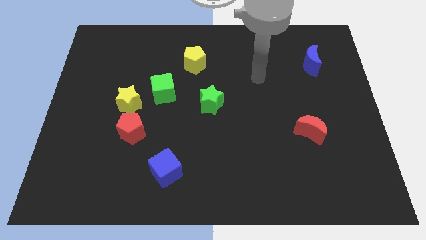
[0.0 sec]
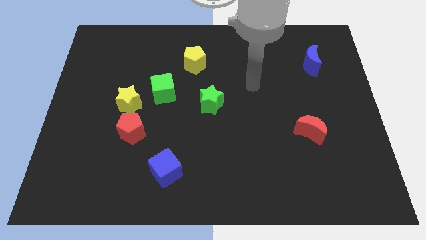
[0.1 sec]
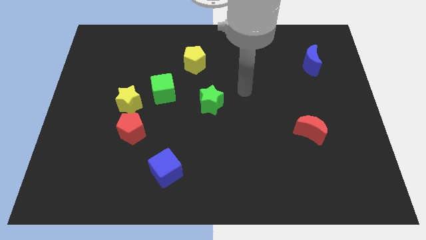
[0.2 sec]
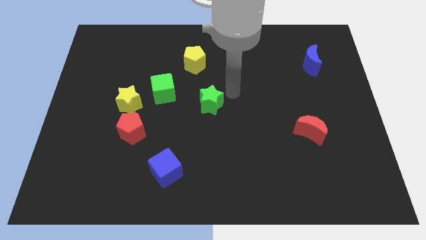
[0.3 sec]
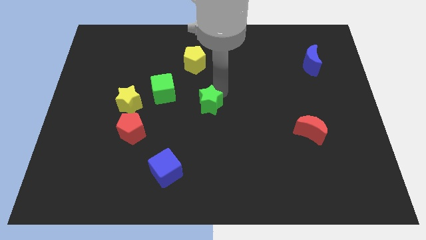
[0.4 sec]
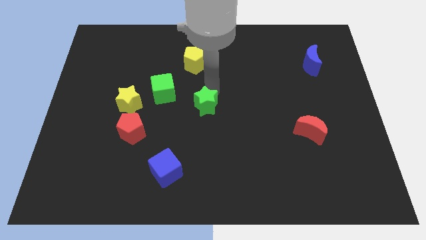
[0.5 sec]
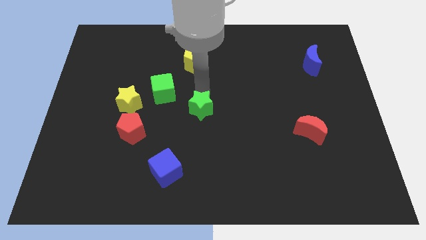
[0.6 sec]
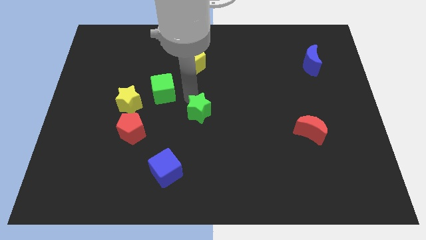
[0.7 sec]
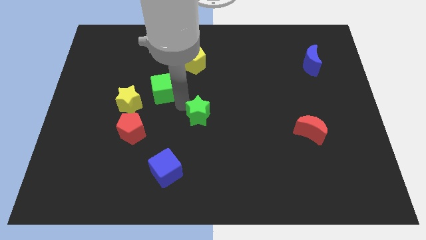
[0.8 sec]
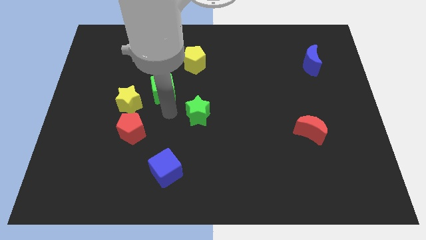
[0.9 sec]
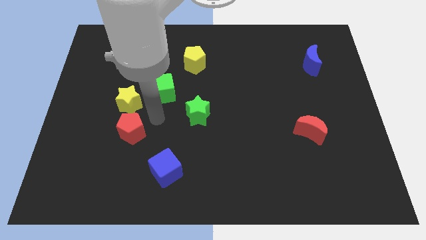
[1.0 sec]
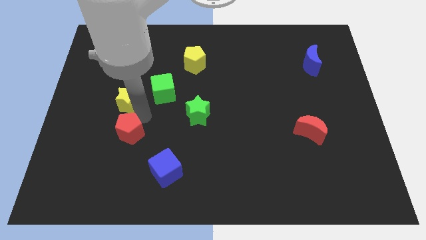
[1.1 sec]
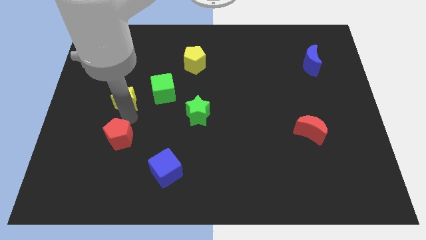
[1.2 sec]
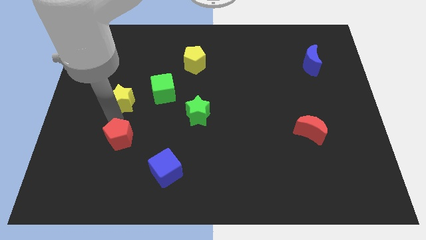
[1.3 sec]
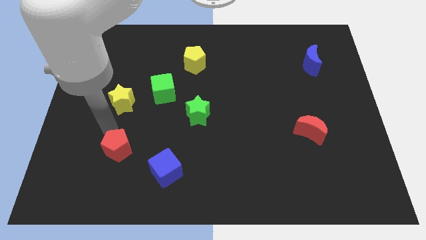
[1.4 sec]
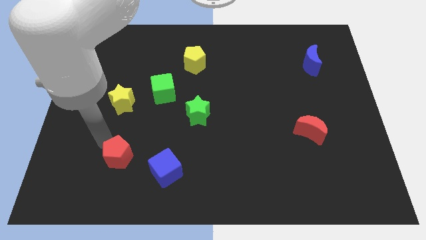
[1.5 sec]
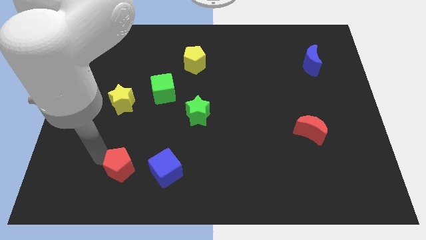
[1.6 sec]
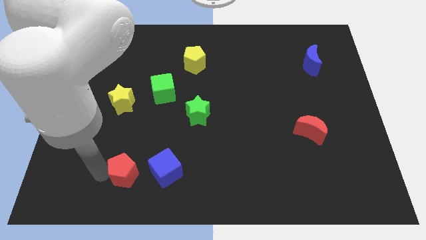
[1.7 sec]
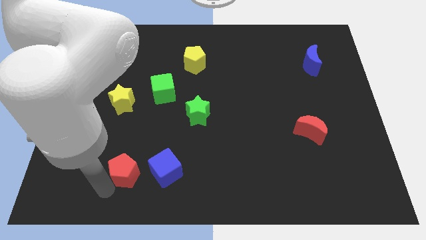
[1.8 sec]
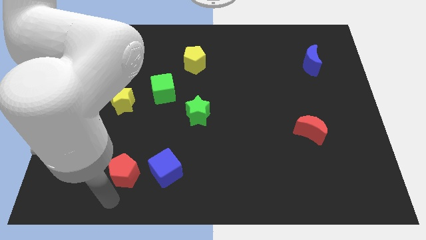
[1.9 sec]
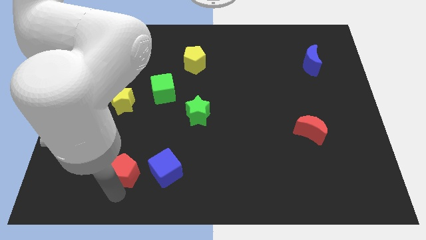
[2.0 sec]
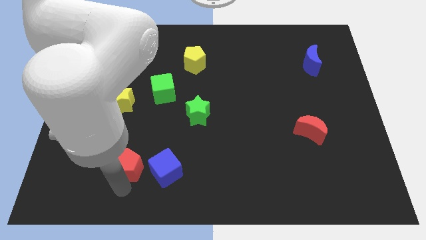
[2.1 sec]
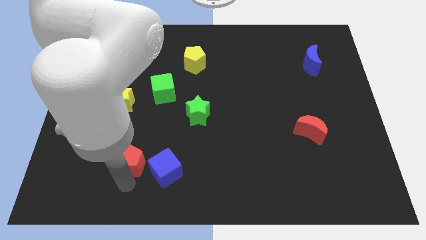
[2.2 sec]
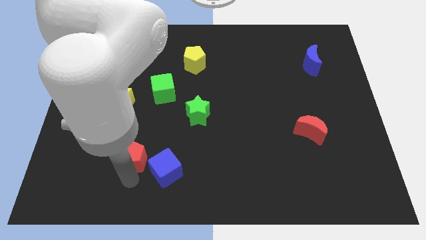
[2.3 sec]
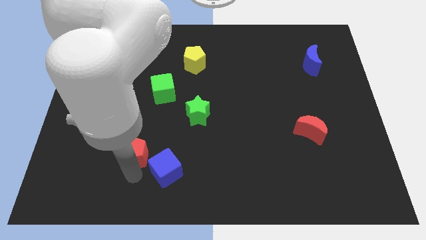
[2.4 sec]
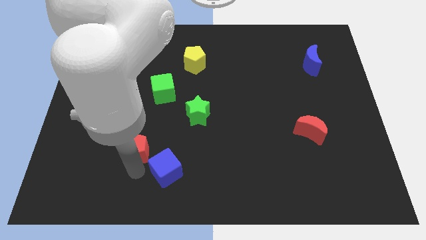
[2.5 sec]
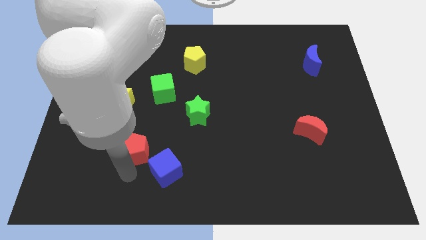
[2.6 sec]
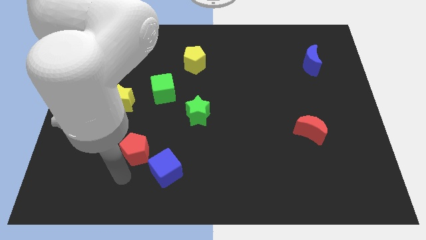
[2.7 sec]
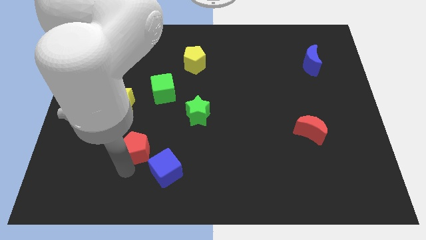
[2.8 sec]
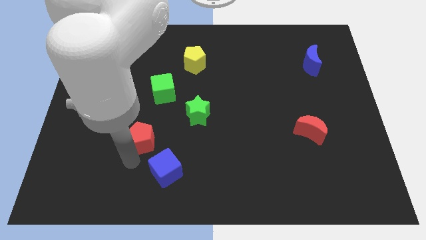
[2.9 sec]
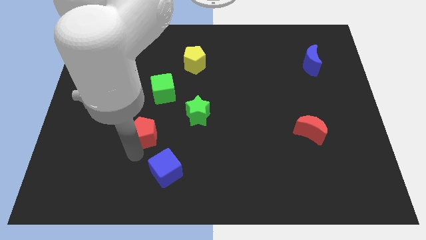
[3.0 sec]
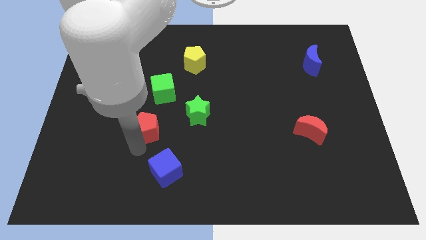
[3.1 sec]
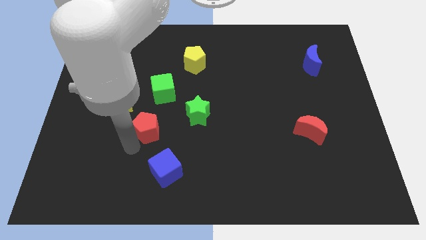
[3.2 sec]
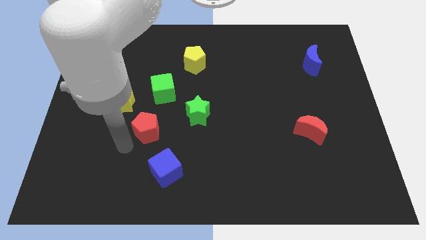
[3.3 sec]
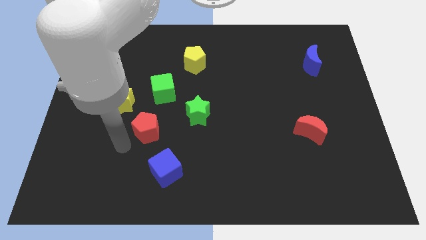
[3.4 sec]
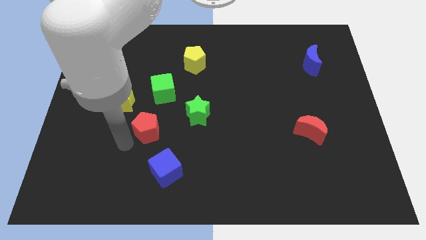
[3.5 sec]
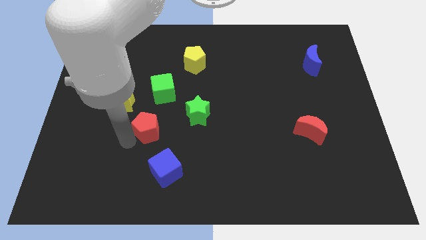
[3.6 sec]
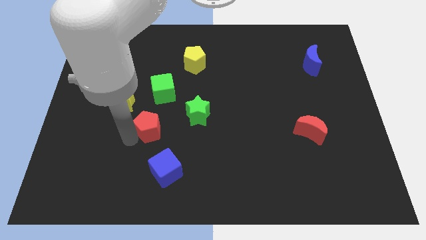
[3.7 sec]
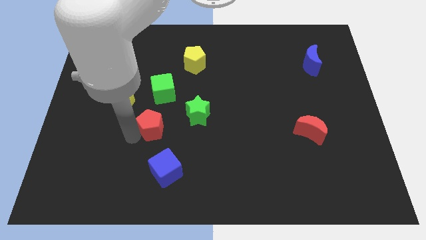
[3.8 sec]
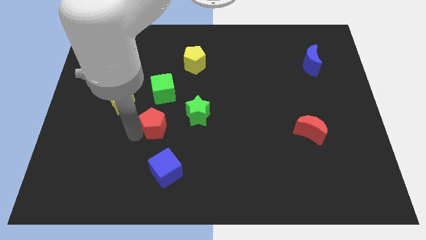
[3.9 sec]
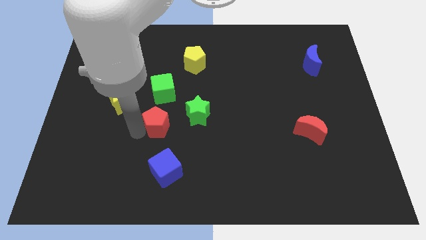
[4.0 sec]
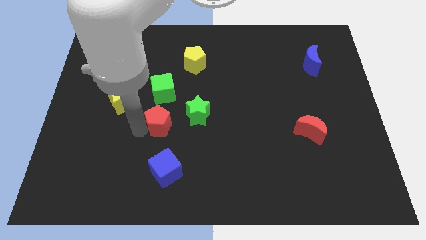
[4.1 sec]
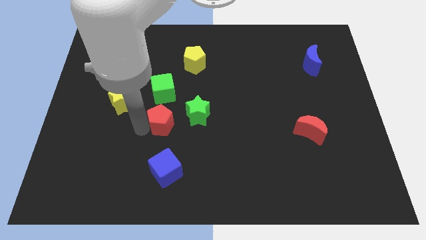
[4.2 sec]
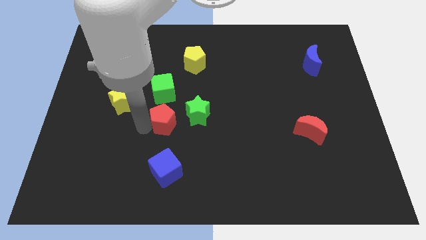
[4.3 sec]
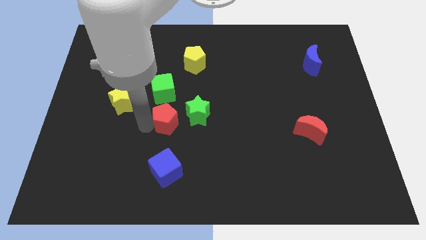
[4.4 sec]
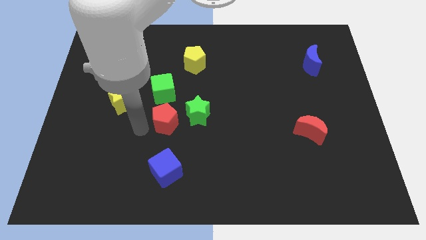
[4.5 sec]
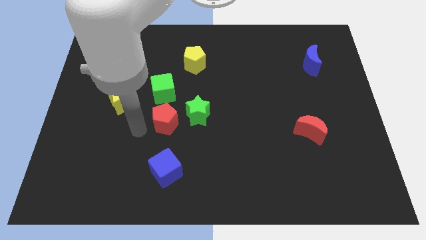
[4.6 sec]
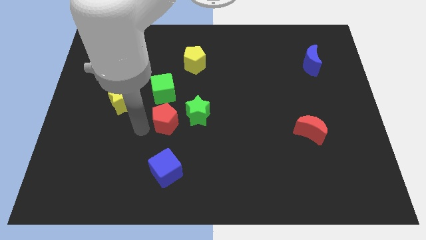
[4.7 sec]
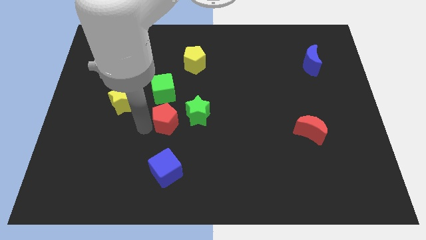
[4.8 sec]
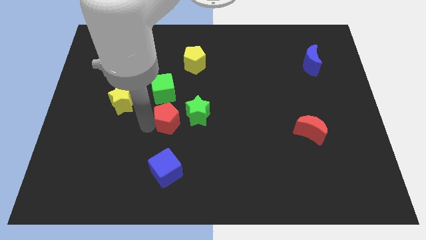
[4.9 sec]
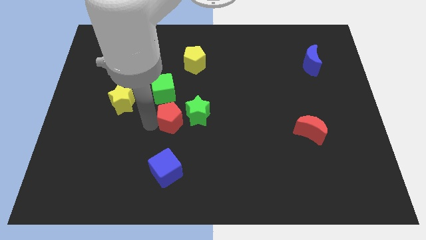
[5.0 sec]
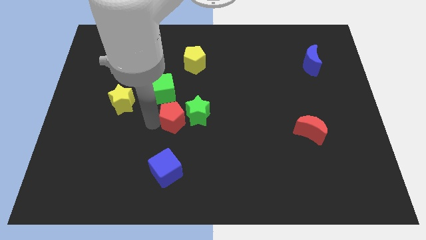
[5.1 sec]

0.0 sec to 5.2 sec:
slide the red pentagon close to the green star
